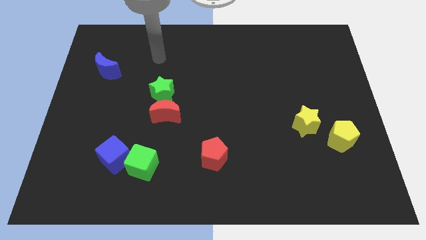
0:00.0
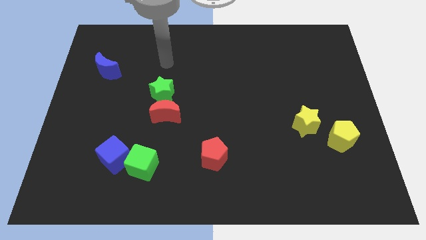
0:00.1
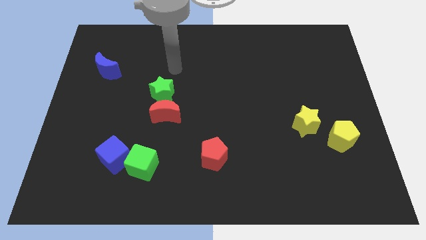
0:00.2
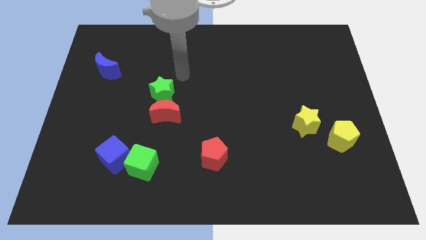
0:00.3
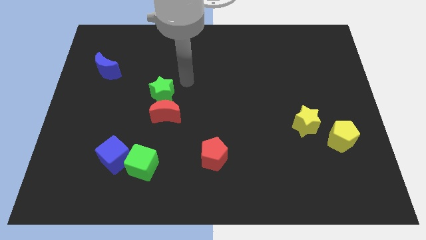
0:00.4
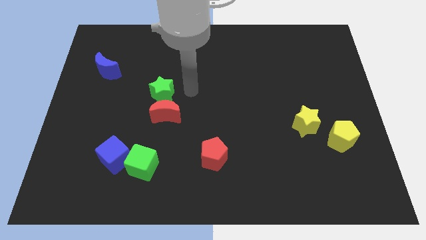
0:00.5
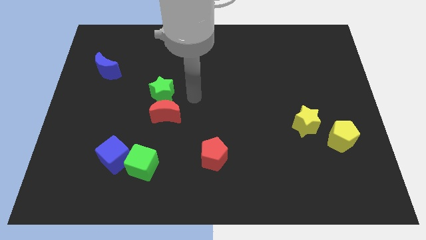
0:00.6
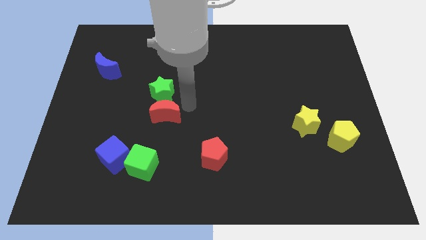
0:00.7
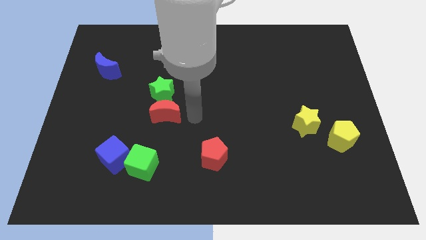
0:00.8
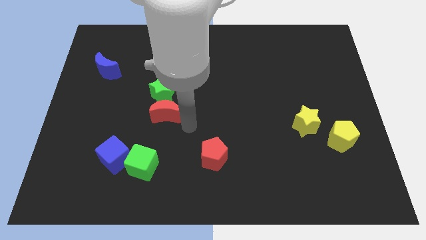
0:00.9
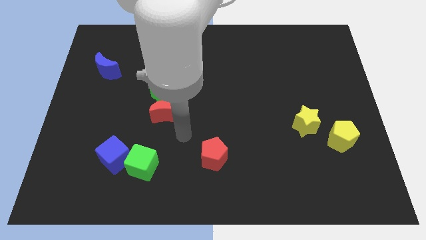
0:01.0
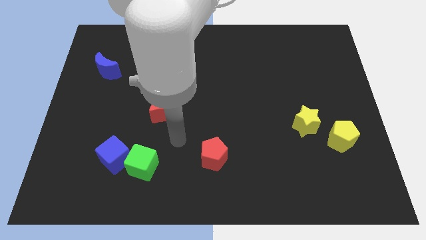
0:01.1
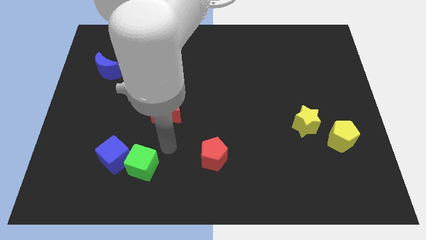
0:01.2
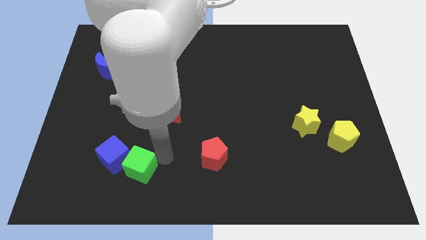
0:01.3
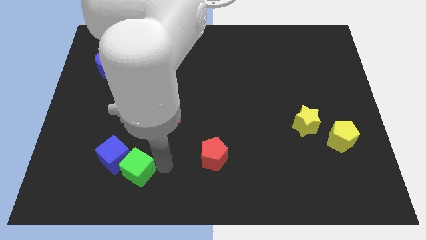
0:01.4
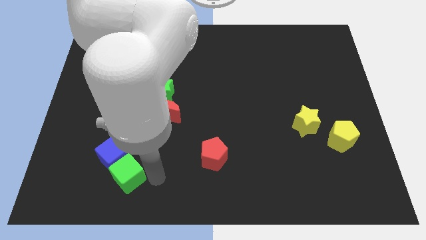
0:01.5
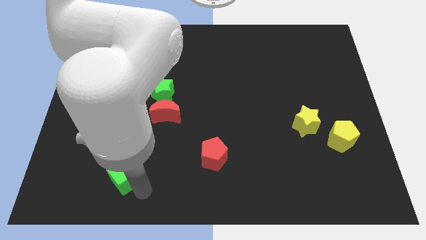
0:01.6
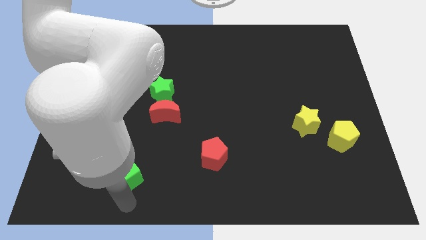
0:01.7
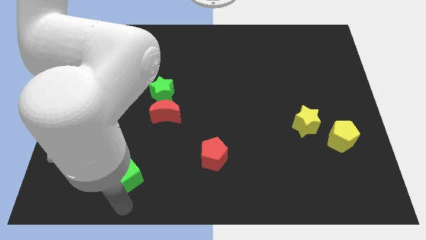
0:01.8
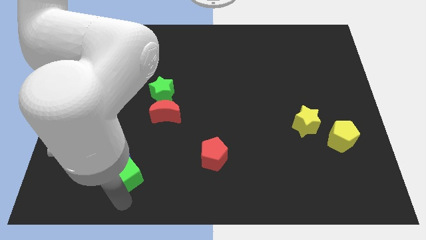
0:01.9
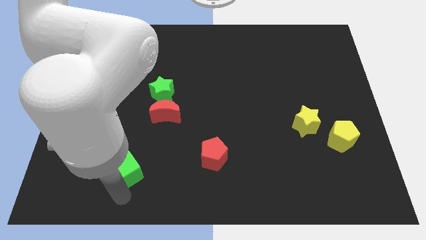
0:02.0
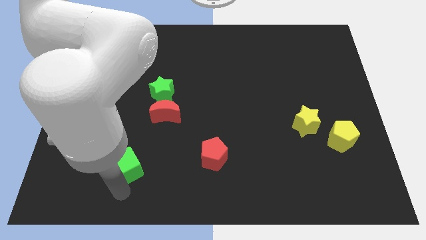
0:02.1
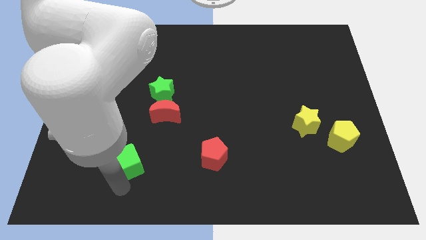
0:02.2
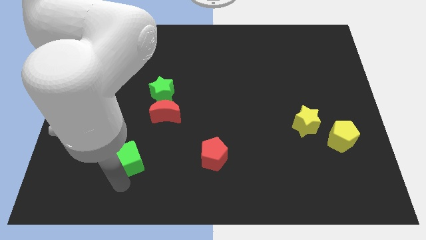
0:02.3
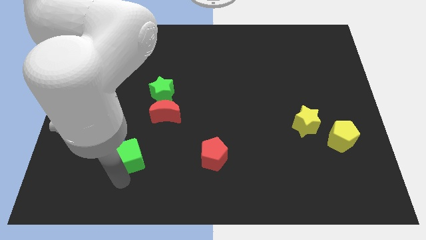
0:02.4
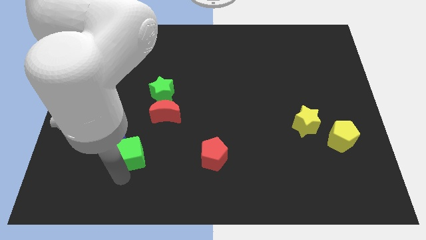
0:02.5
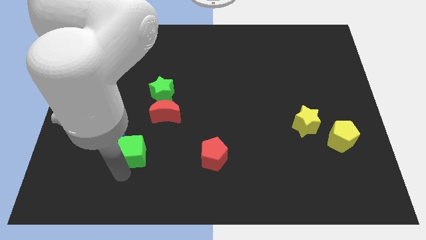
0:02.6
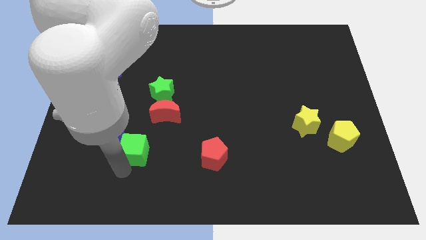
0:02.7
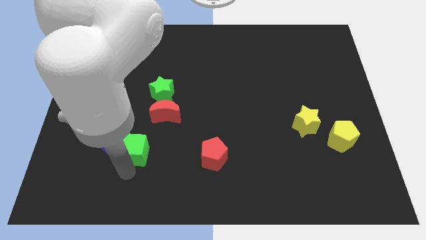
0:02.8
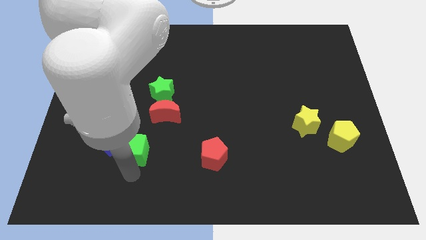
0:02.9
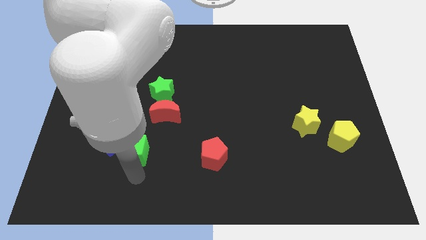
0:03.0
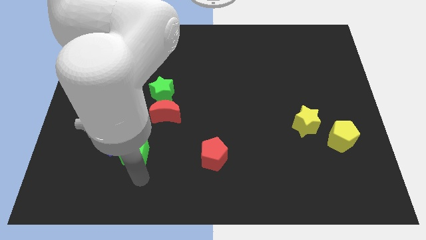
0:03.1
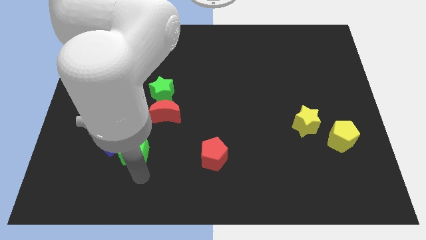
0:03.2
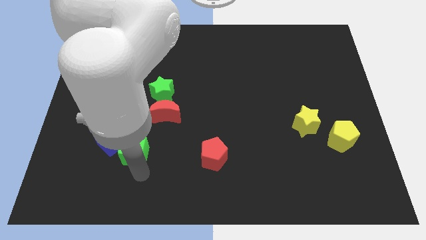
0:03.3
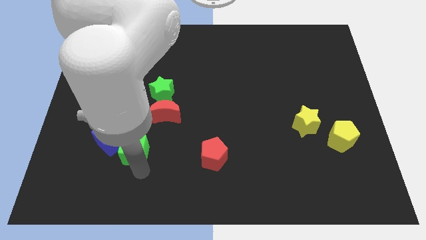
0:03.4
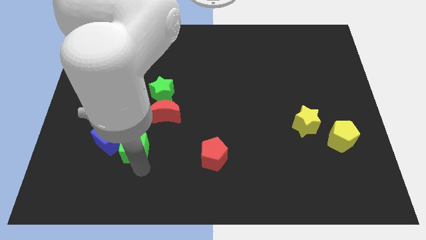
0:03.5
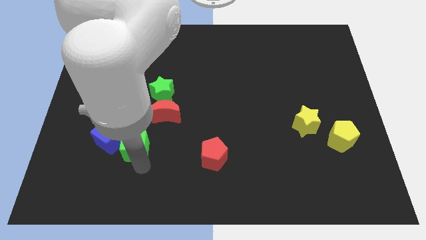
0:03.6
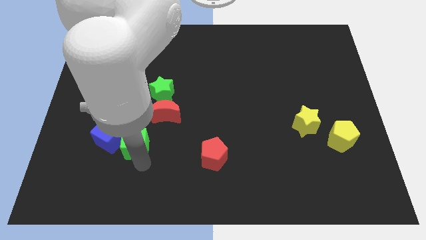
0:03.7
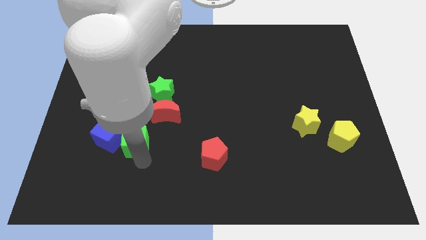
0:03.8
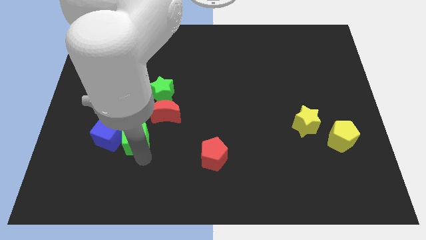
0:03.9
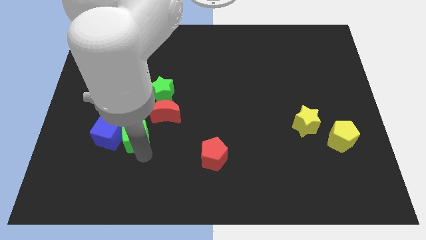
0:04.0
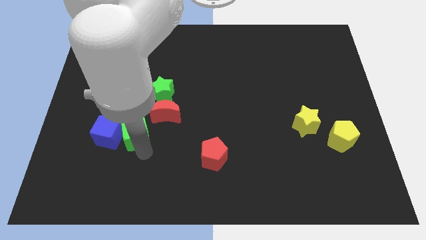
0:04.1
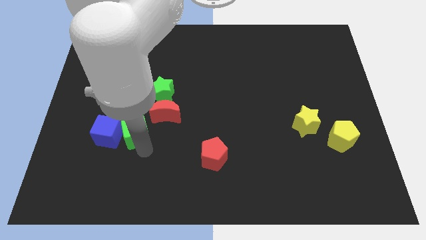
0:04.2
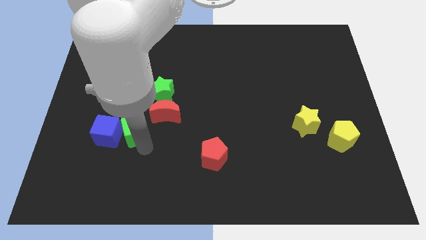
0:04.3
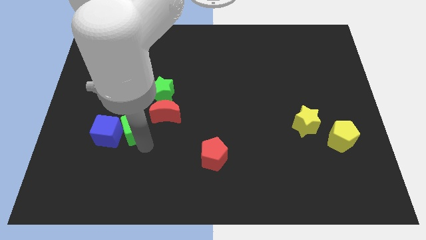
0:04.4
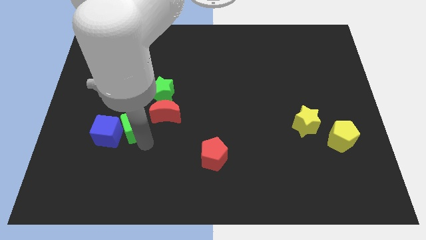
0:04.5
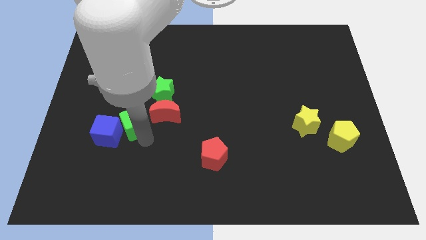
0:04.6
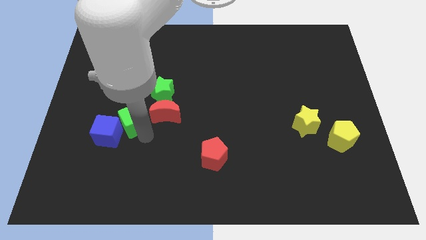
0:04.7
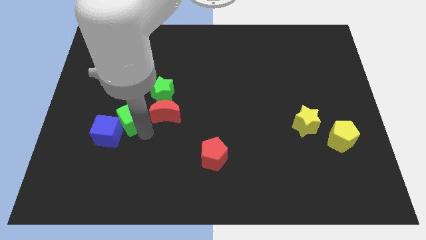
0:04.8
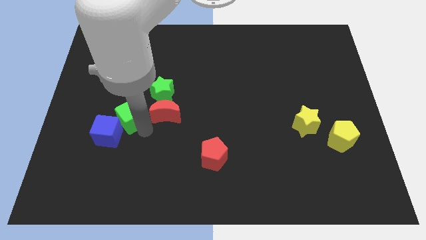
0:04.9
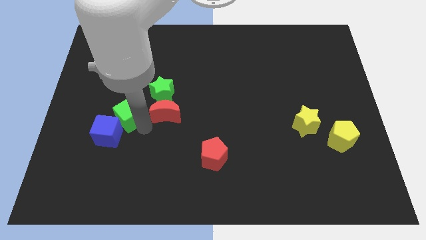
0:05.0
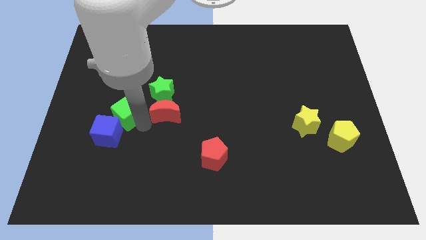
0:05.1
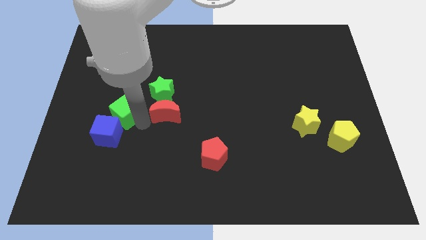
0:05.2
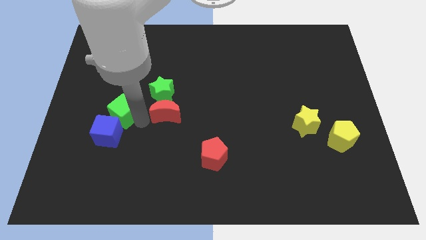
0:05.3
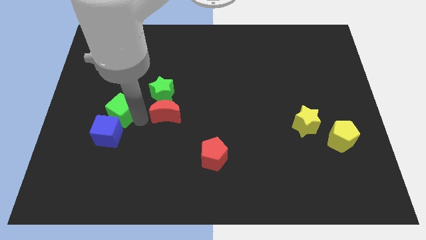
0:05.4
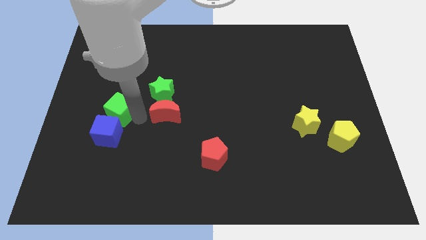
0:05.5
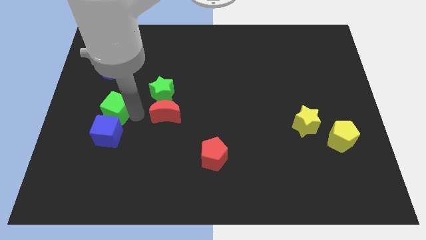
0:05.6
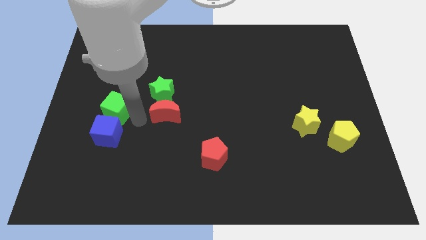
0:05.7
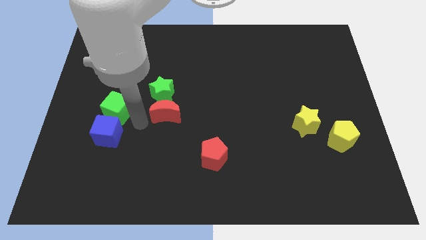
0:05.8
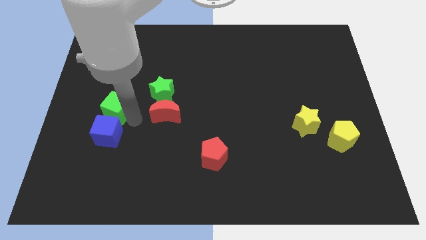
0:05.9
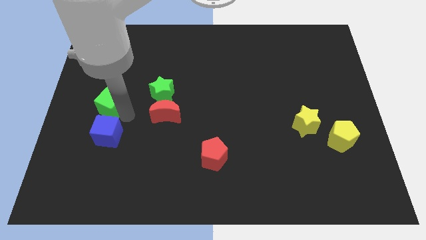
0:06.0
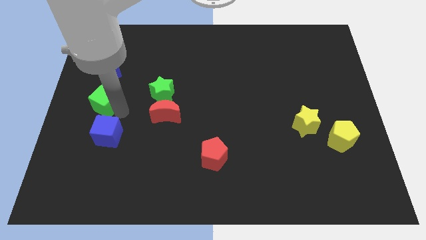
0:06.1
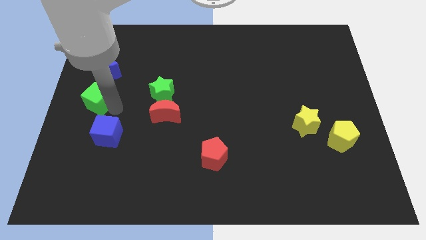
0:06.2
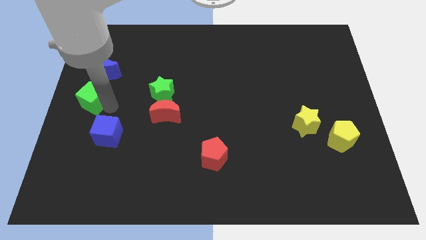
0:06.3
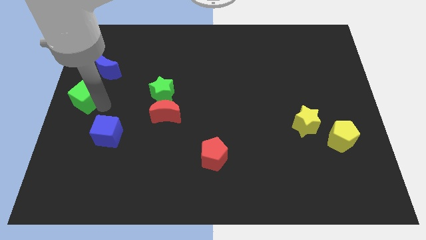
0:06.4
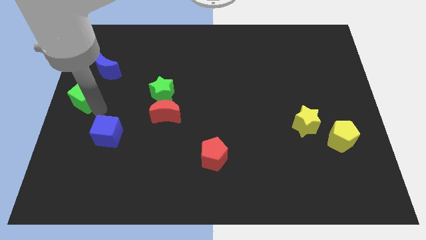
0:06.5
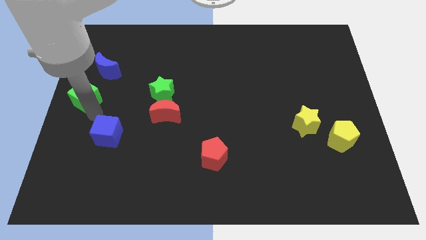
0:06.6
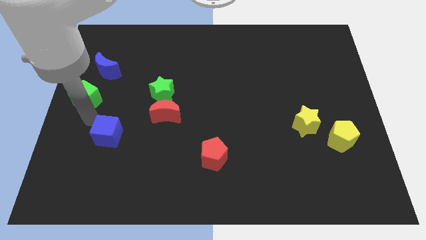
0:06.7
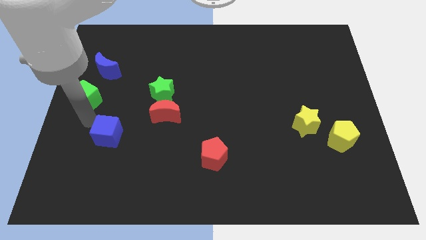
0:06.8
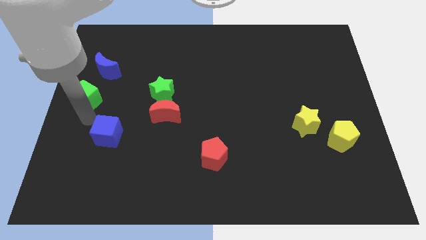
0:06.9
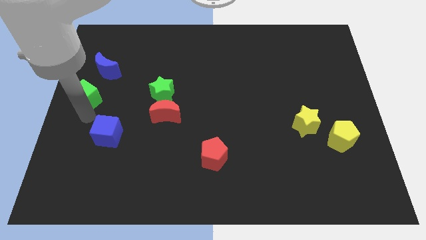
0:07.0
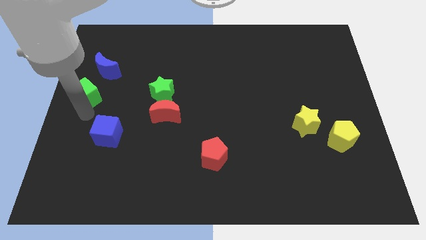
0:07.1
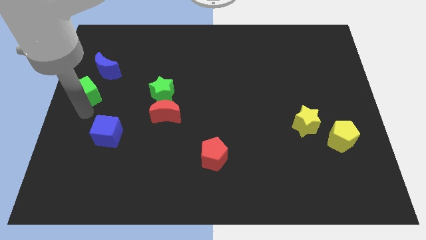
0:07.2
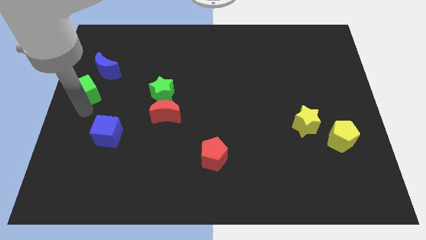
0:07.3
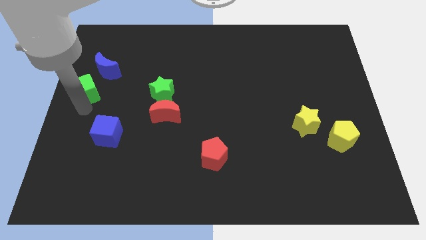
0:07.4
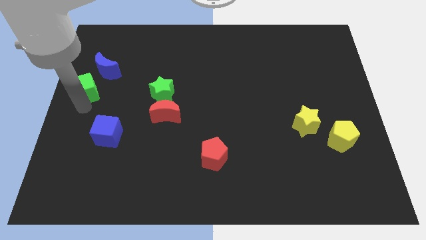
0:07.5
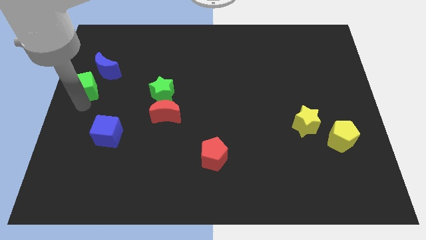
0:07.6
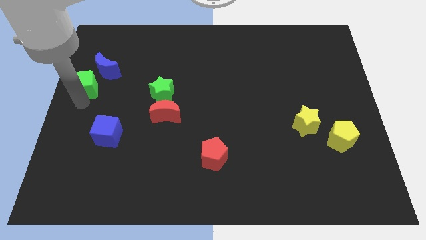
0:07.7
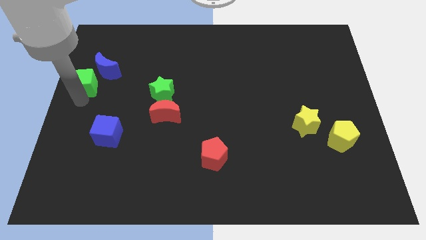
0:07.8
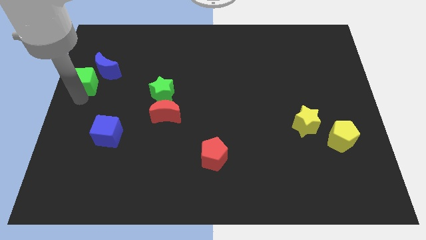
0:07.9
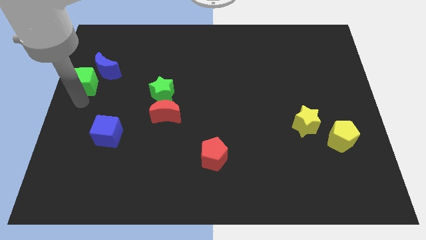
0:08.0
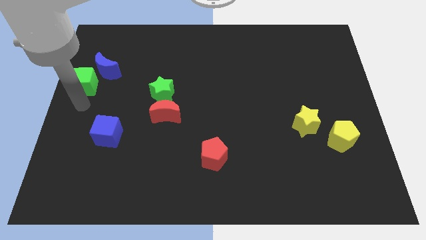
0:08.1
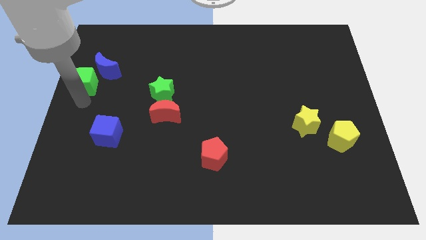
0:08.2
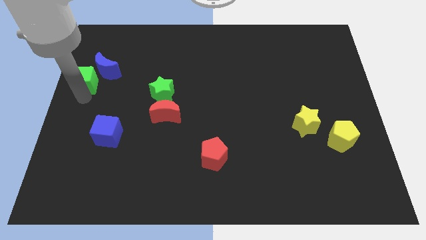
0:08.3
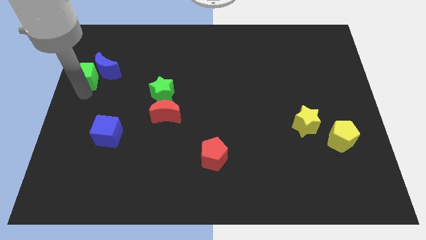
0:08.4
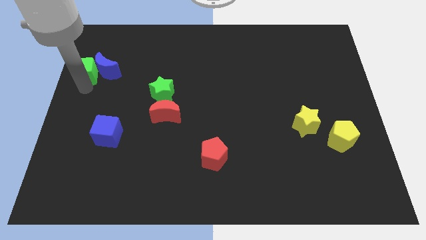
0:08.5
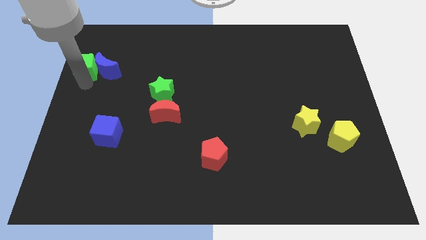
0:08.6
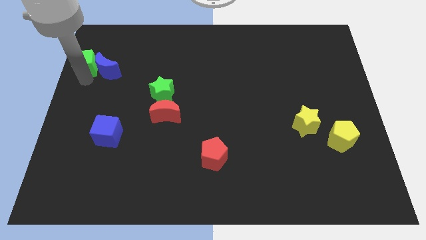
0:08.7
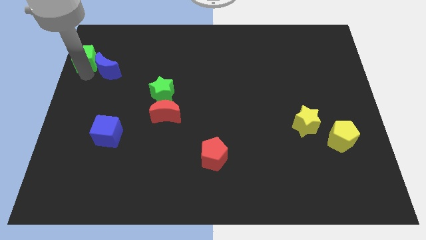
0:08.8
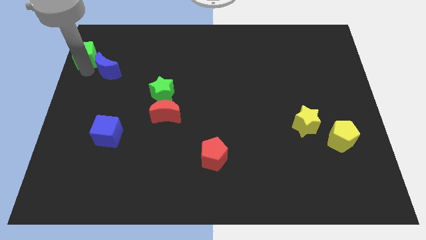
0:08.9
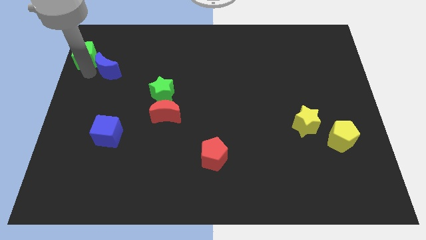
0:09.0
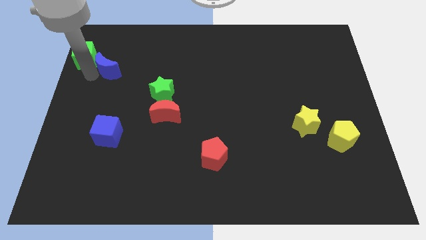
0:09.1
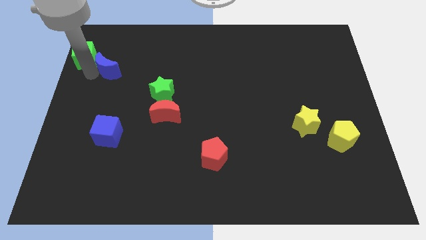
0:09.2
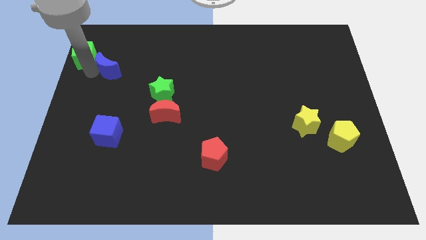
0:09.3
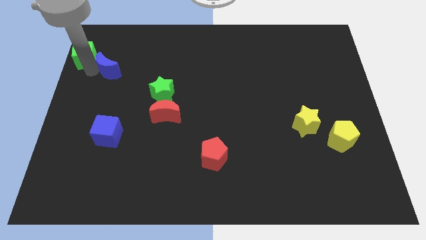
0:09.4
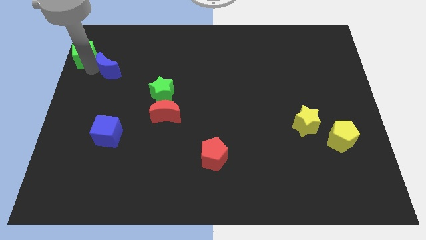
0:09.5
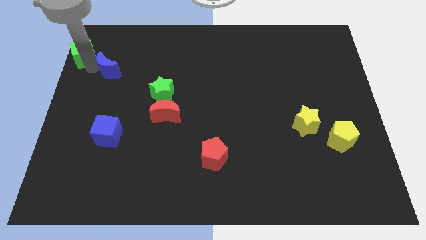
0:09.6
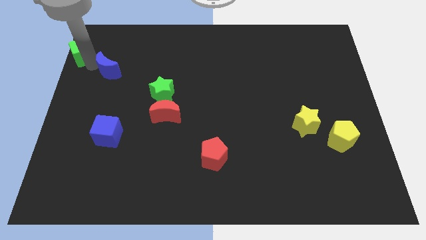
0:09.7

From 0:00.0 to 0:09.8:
put the green cube to the upper left corner
